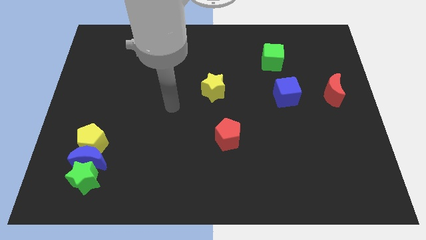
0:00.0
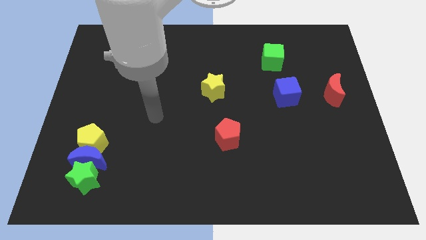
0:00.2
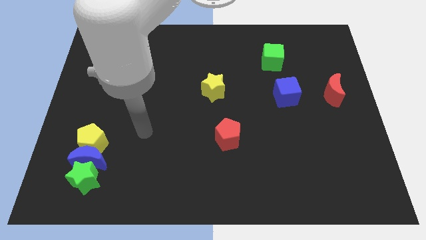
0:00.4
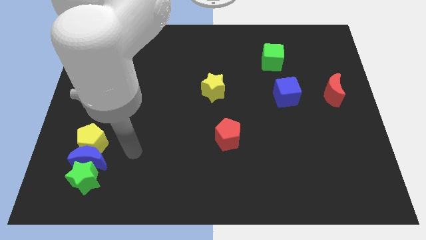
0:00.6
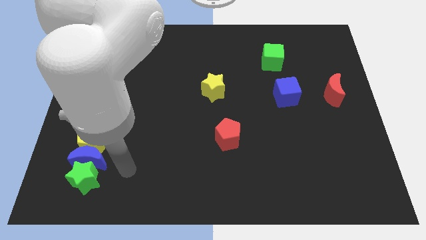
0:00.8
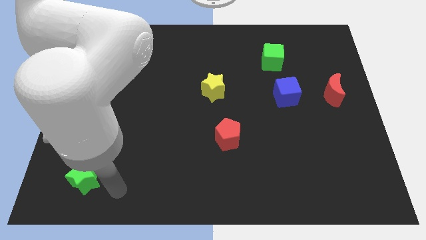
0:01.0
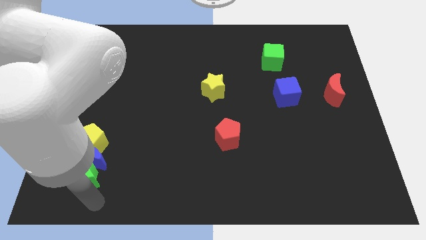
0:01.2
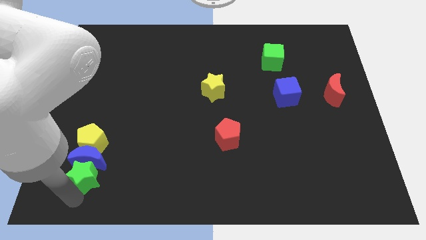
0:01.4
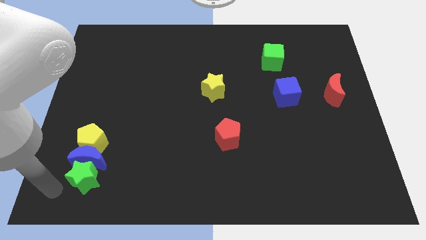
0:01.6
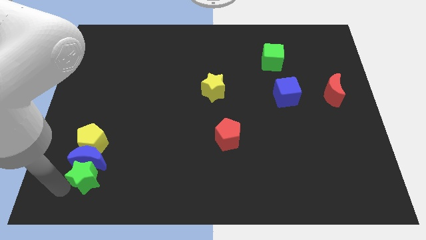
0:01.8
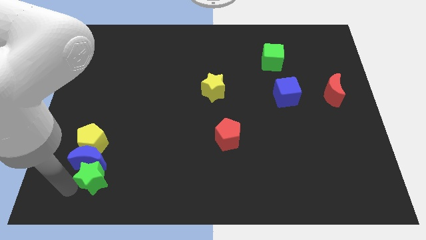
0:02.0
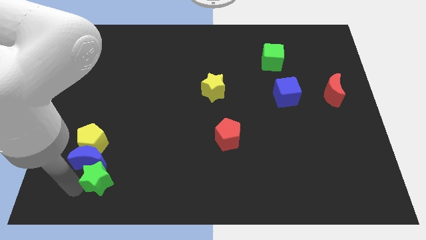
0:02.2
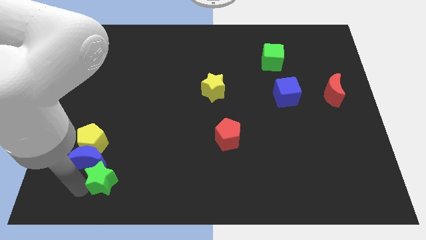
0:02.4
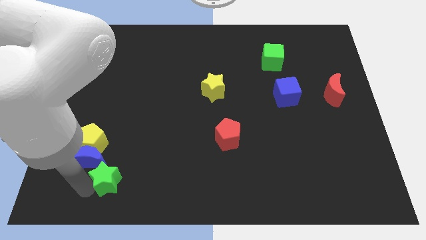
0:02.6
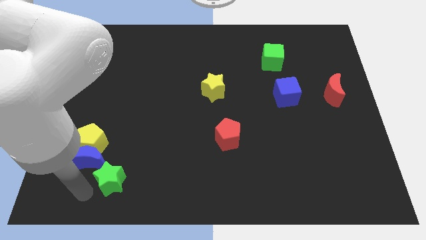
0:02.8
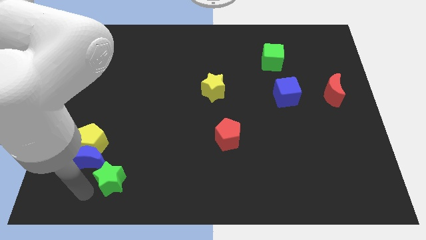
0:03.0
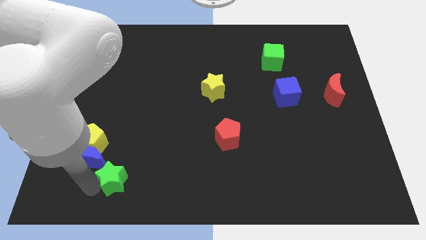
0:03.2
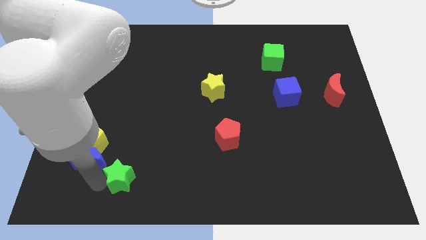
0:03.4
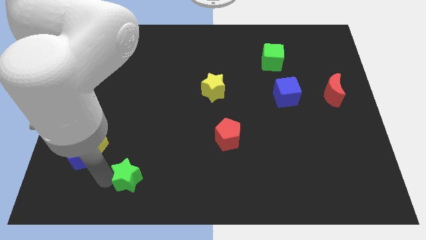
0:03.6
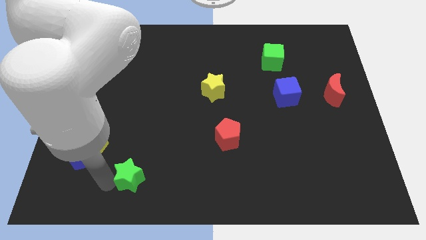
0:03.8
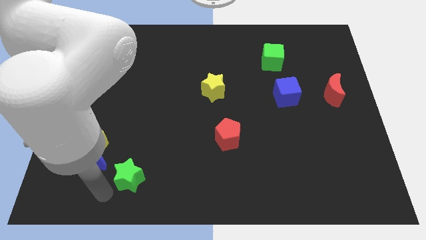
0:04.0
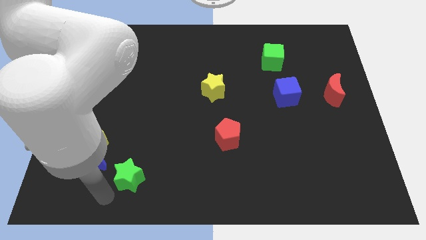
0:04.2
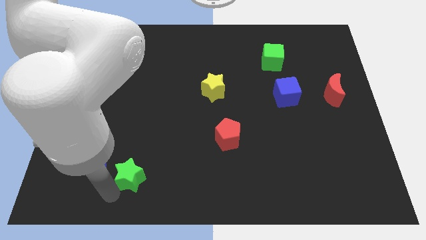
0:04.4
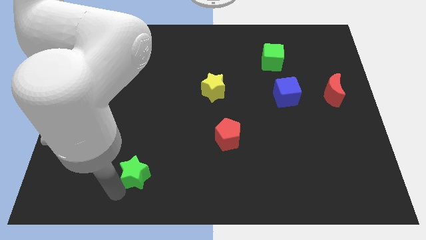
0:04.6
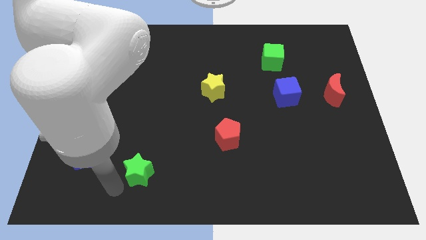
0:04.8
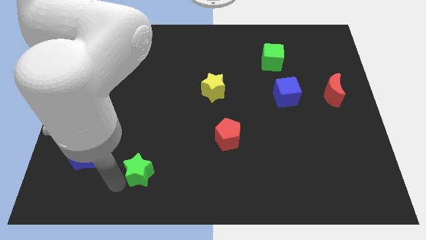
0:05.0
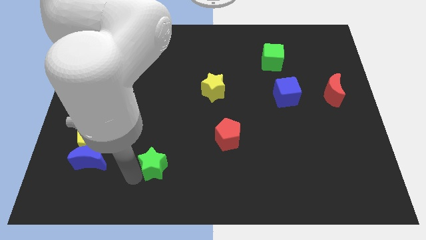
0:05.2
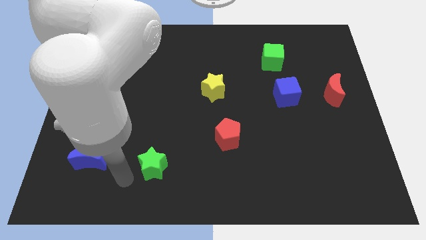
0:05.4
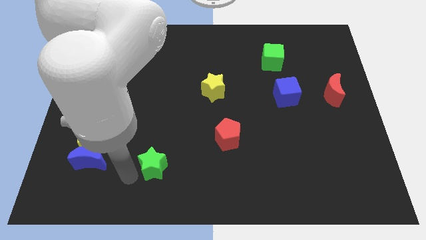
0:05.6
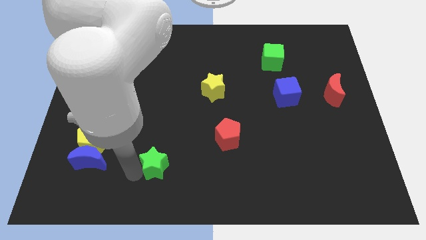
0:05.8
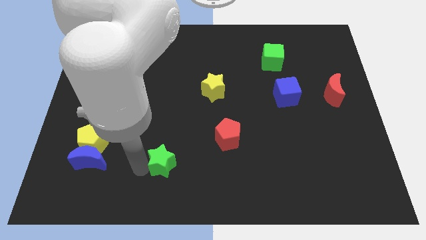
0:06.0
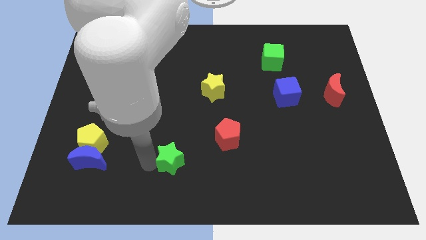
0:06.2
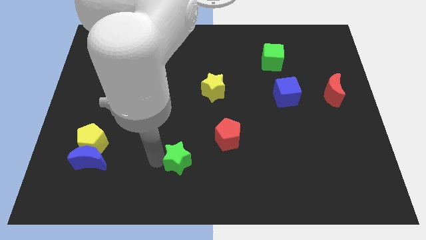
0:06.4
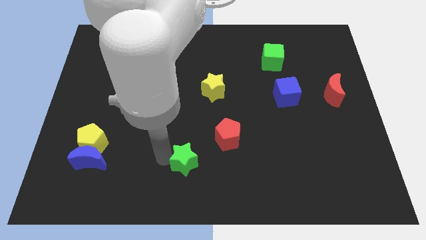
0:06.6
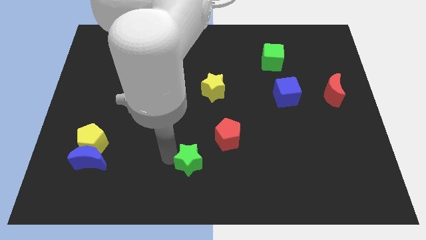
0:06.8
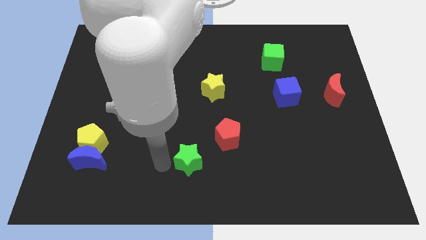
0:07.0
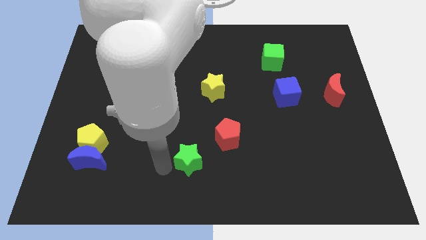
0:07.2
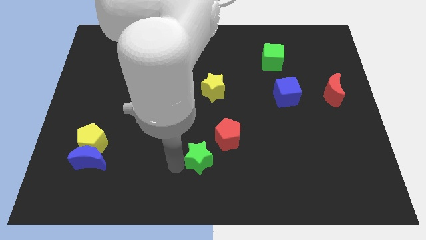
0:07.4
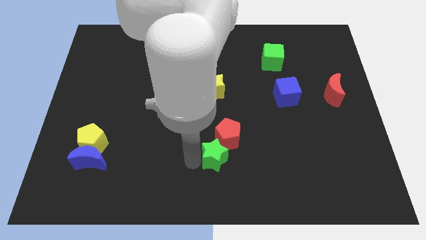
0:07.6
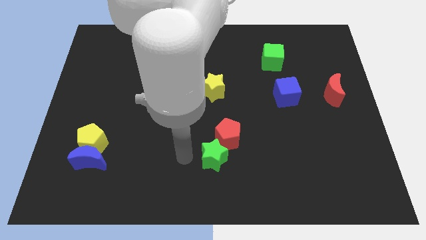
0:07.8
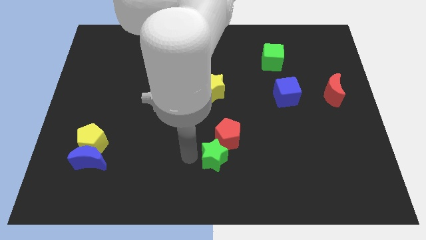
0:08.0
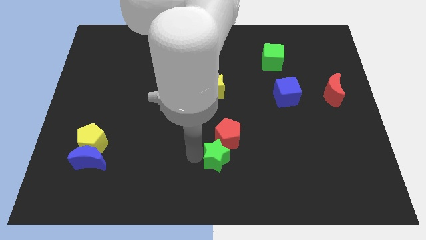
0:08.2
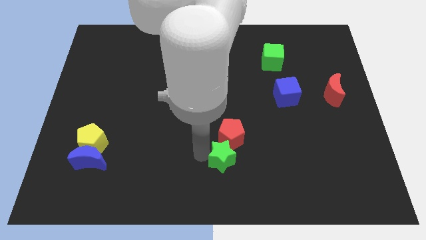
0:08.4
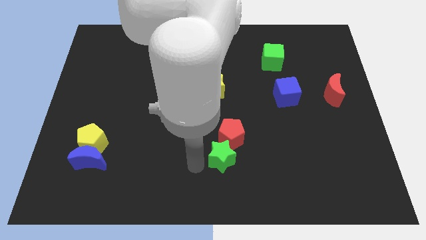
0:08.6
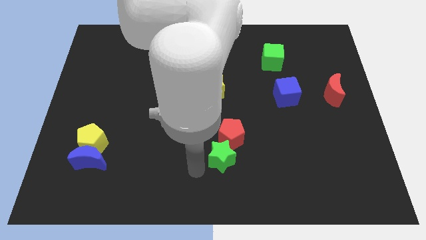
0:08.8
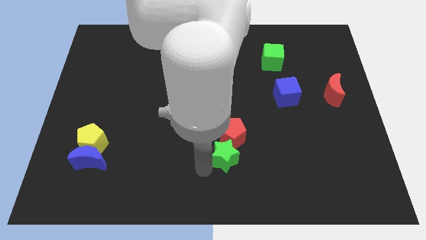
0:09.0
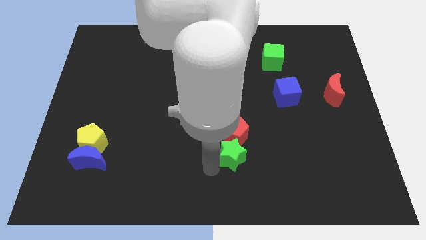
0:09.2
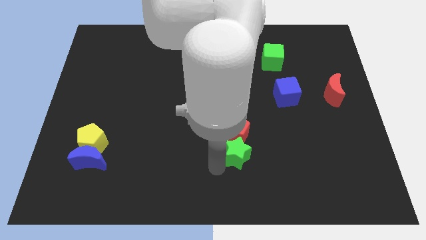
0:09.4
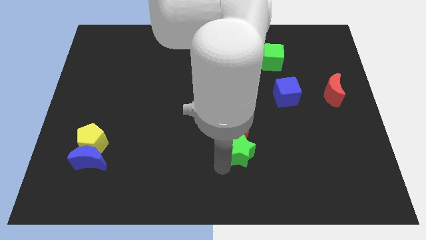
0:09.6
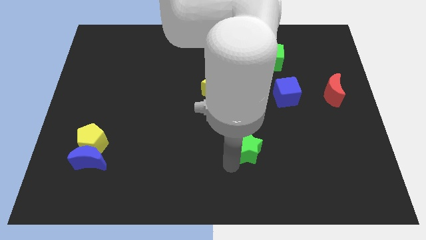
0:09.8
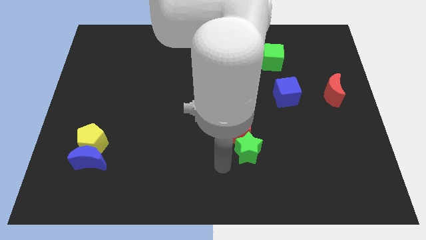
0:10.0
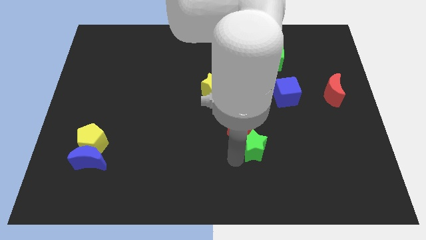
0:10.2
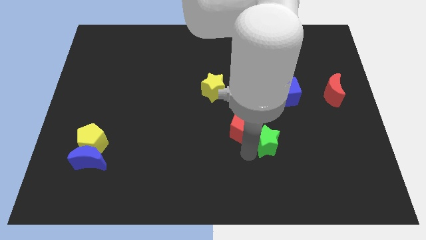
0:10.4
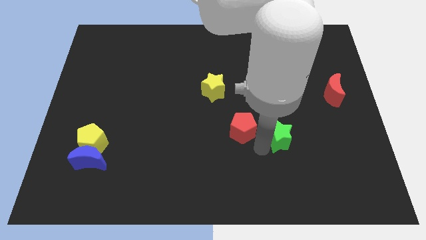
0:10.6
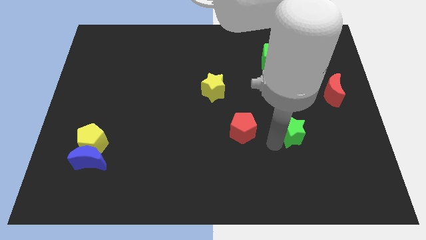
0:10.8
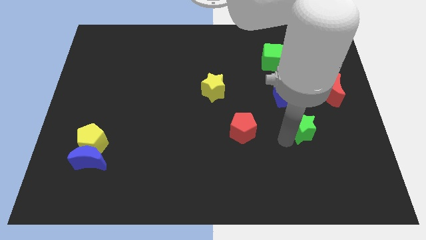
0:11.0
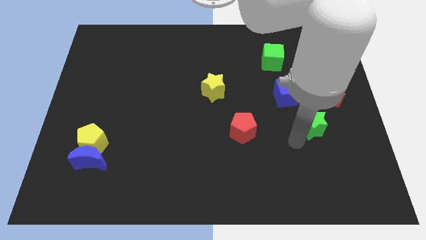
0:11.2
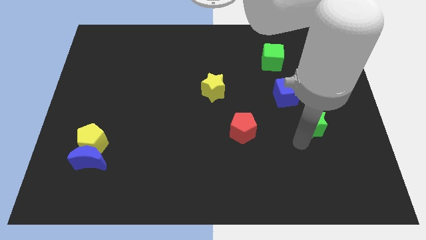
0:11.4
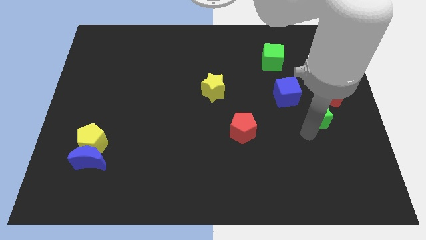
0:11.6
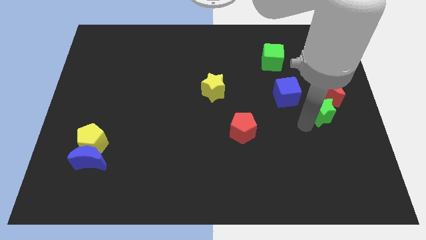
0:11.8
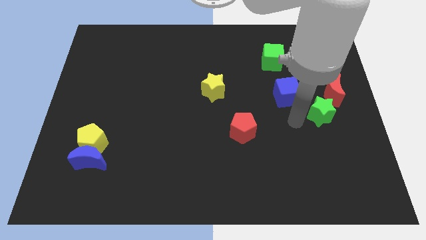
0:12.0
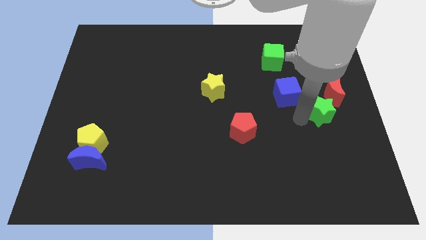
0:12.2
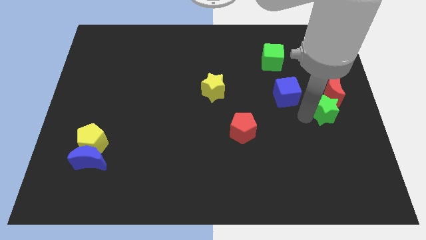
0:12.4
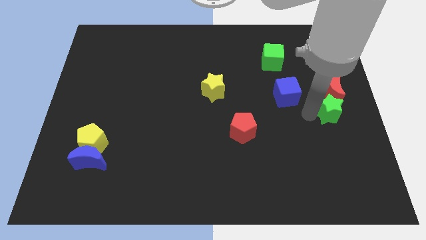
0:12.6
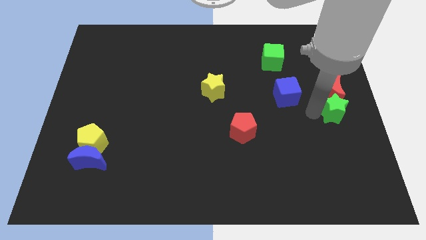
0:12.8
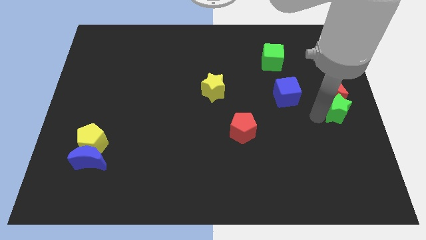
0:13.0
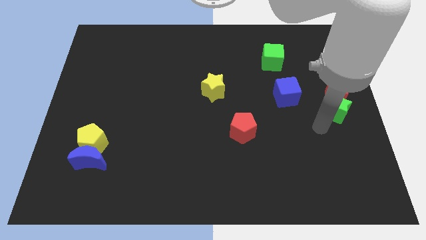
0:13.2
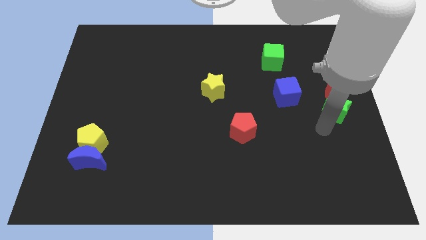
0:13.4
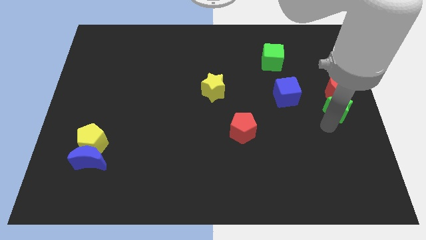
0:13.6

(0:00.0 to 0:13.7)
push the green star right of the blue cube

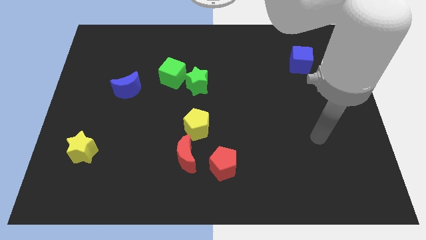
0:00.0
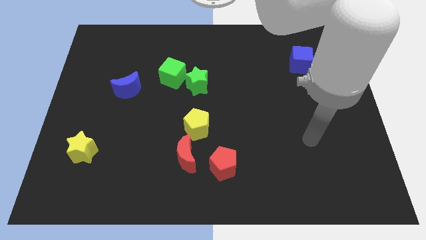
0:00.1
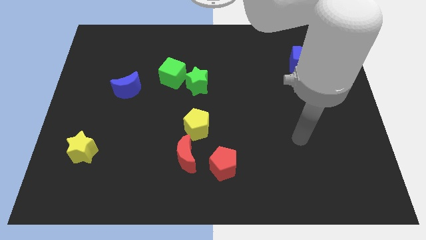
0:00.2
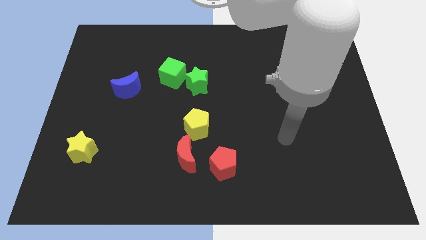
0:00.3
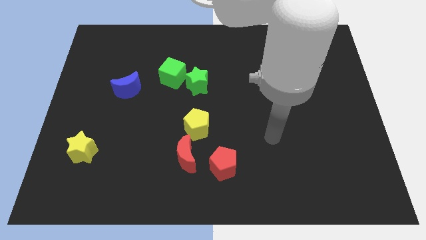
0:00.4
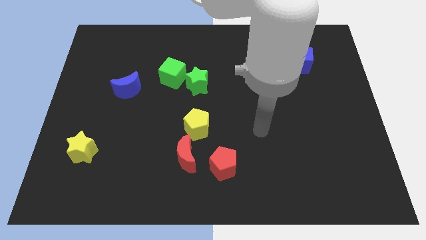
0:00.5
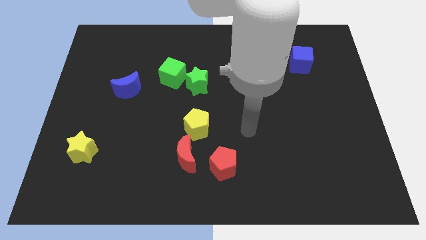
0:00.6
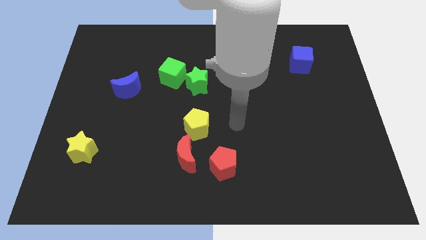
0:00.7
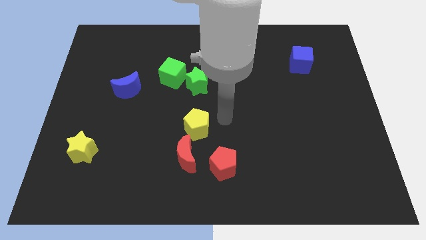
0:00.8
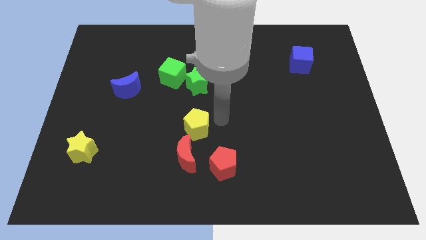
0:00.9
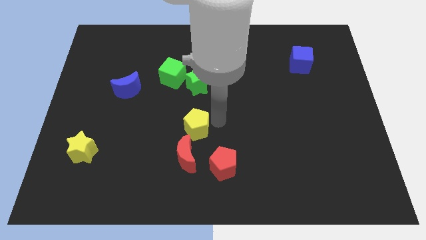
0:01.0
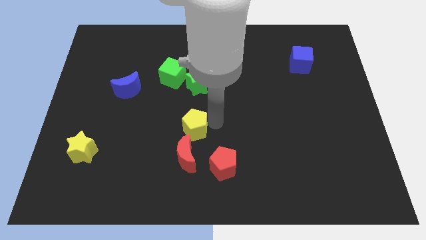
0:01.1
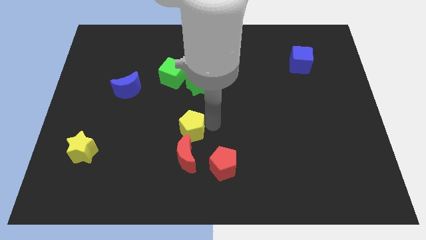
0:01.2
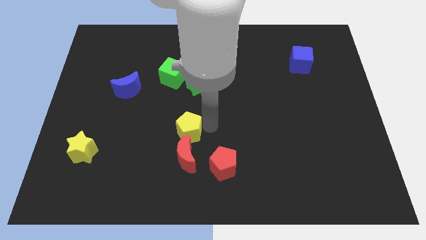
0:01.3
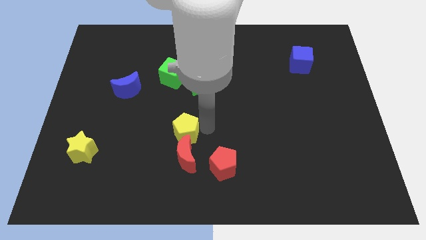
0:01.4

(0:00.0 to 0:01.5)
move the yellow pentagon to the top left of the red moon
